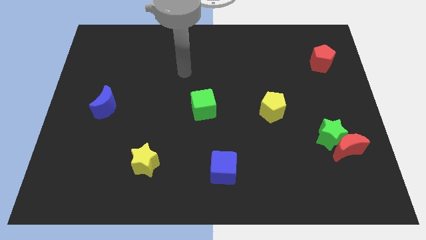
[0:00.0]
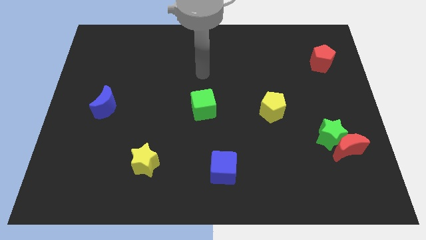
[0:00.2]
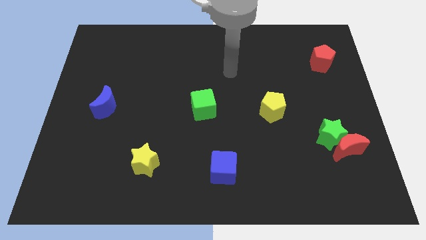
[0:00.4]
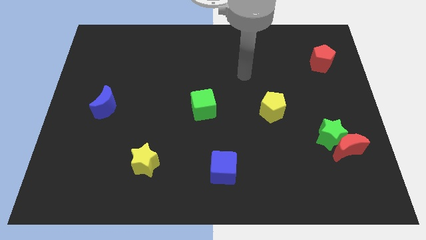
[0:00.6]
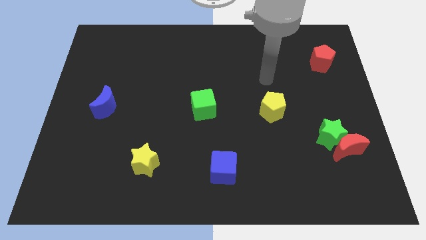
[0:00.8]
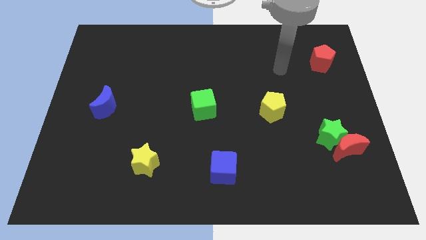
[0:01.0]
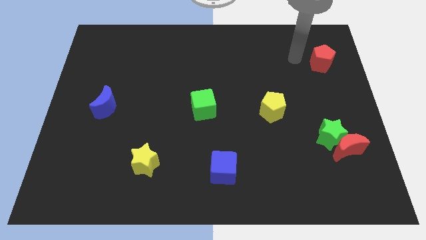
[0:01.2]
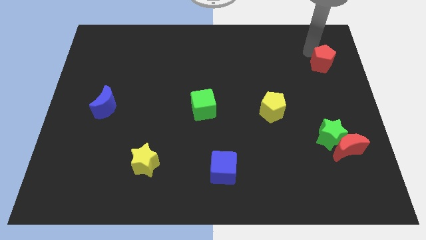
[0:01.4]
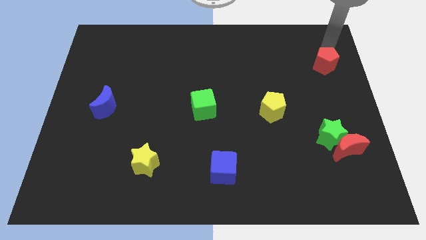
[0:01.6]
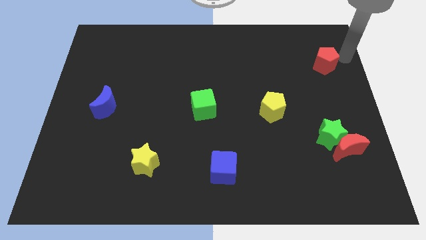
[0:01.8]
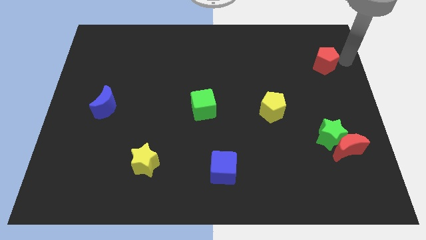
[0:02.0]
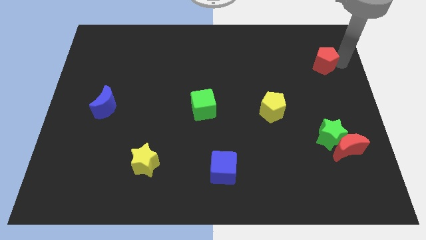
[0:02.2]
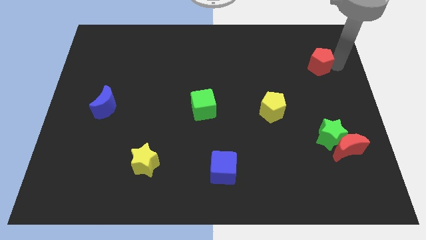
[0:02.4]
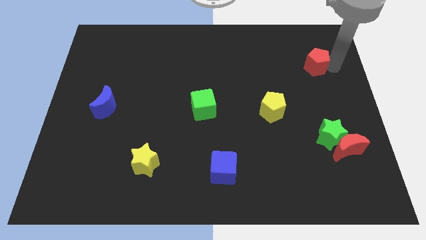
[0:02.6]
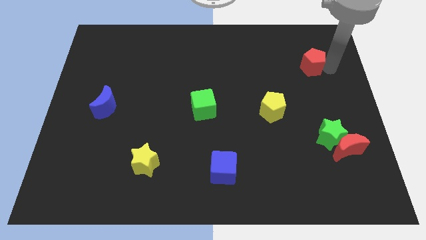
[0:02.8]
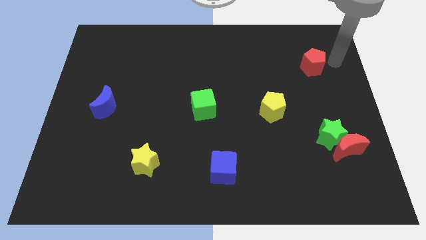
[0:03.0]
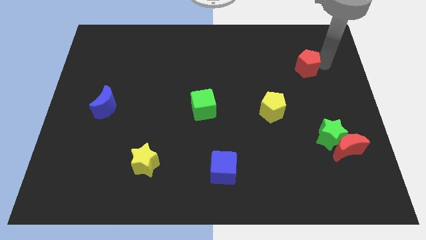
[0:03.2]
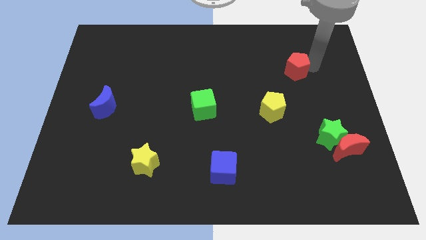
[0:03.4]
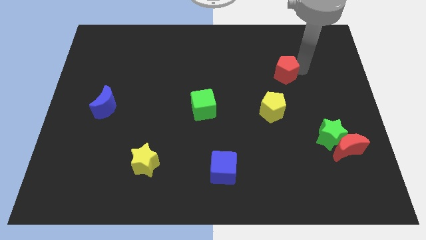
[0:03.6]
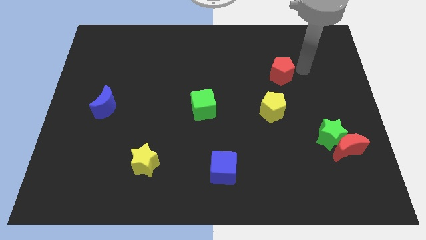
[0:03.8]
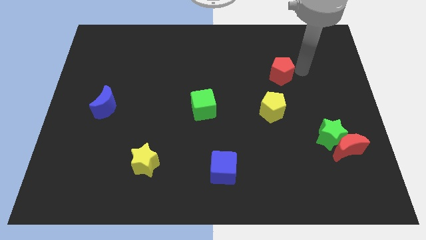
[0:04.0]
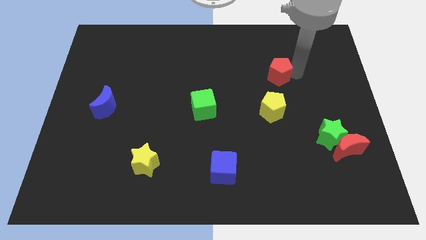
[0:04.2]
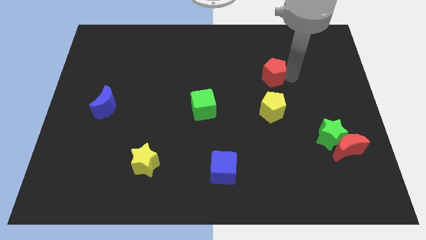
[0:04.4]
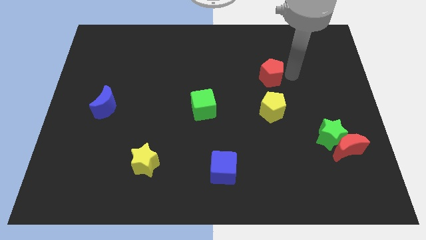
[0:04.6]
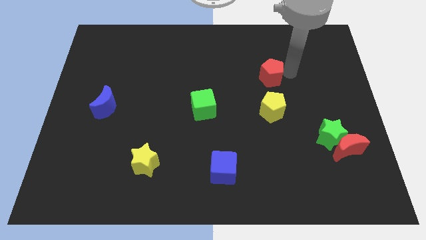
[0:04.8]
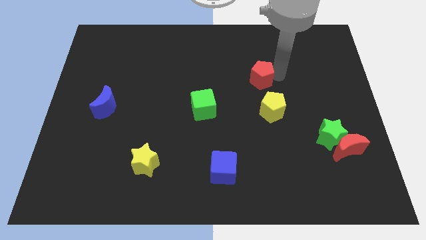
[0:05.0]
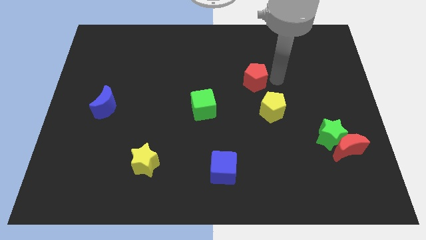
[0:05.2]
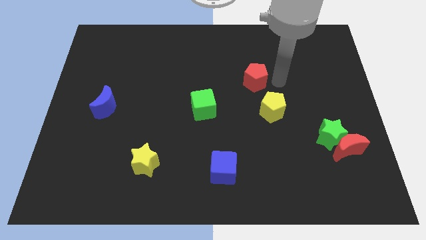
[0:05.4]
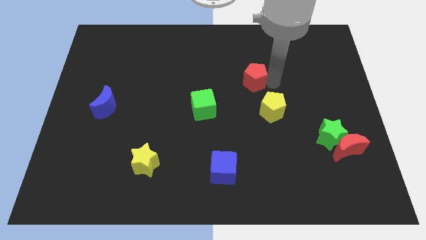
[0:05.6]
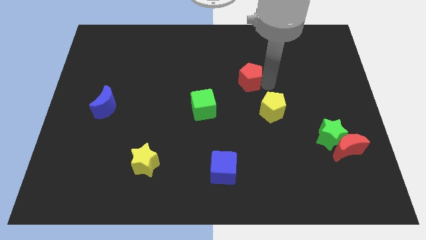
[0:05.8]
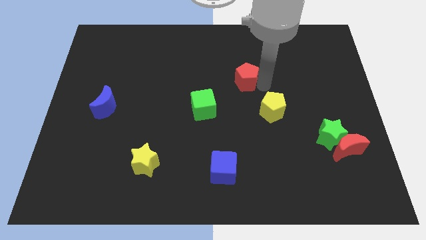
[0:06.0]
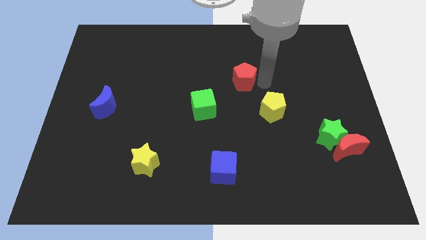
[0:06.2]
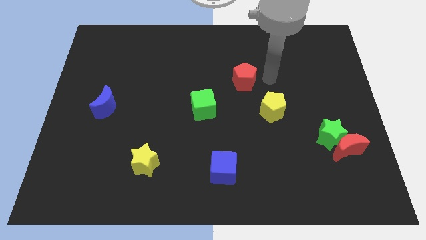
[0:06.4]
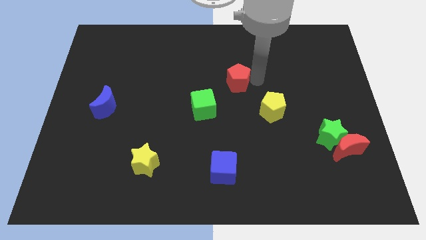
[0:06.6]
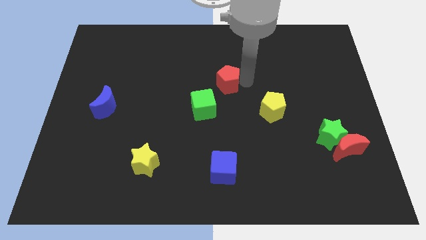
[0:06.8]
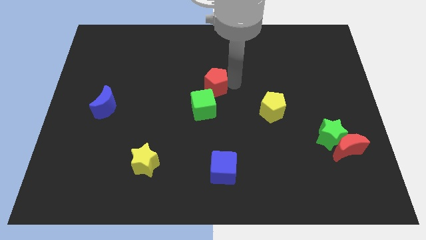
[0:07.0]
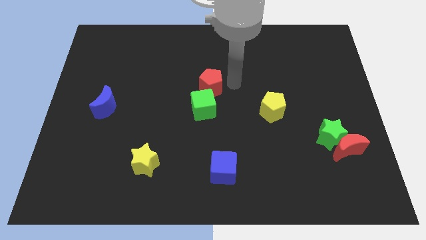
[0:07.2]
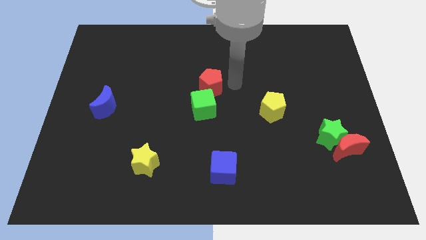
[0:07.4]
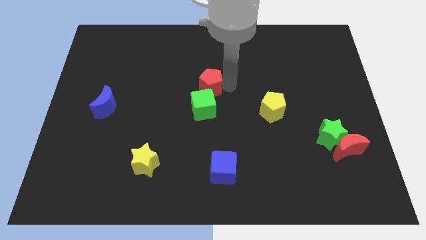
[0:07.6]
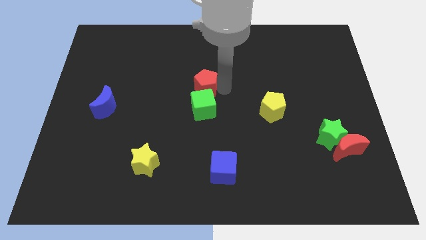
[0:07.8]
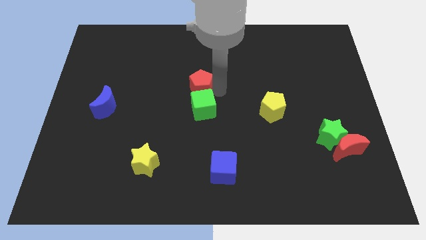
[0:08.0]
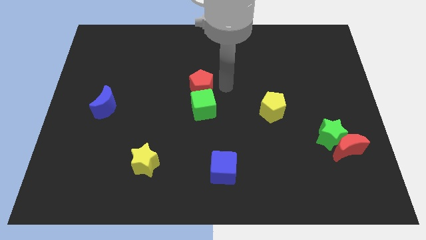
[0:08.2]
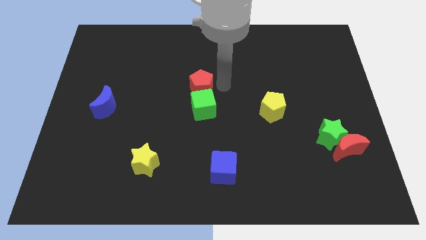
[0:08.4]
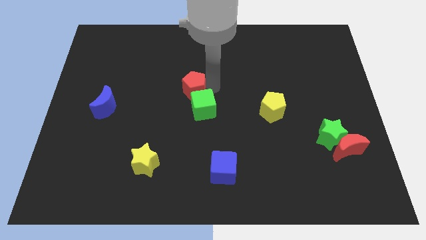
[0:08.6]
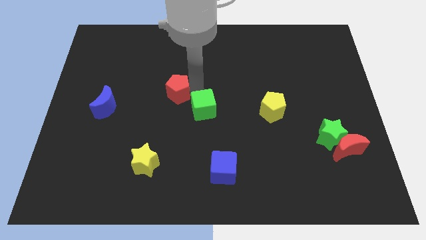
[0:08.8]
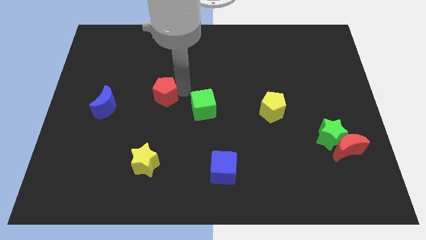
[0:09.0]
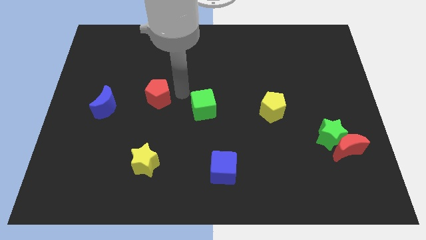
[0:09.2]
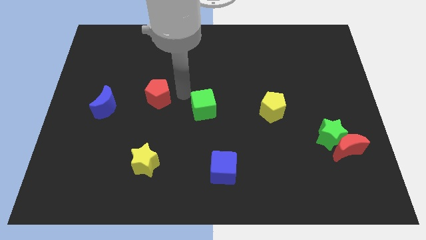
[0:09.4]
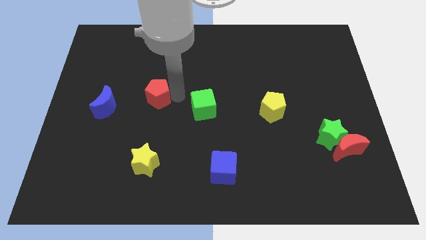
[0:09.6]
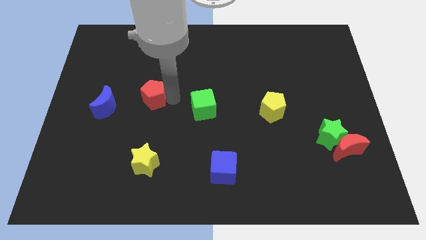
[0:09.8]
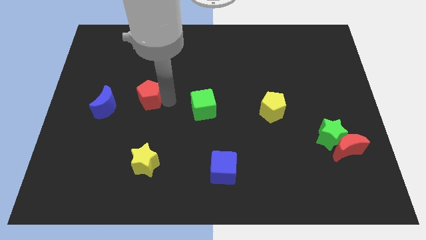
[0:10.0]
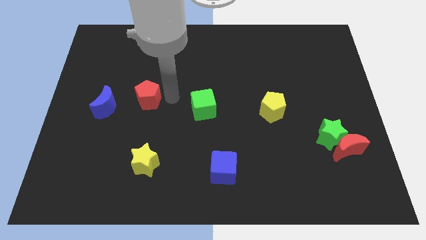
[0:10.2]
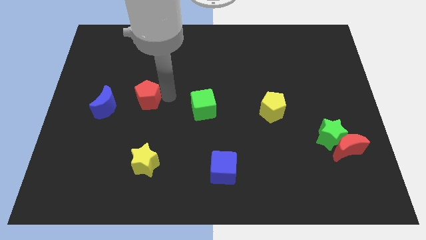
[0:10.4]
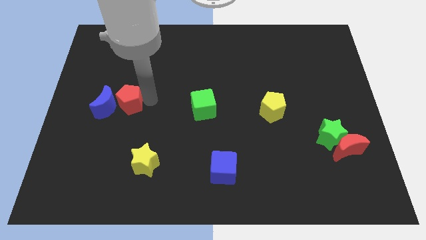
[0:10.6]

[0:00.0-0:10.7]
put the red pentagon towards the blue moon

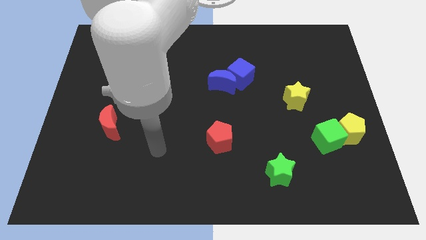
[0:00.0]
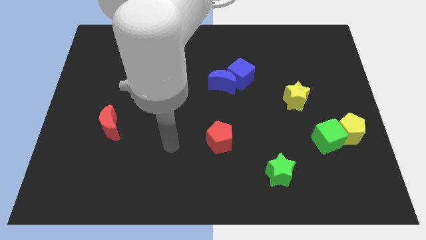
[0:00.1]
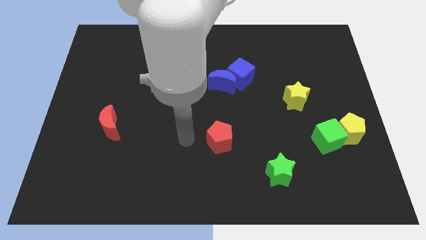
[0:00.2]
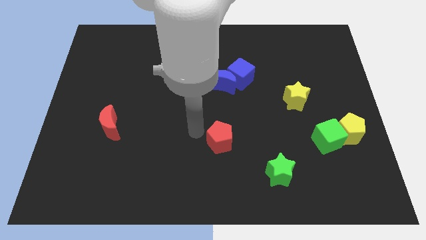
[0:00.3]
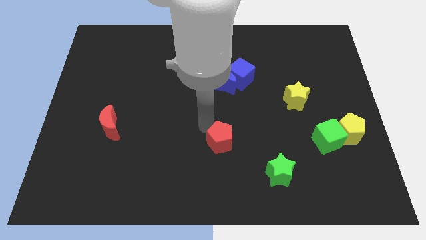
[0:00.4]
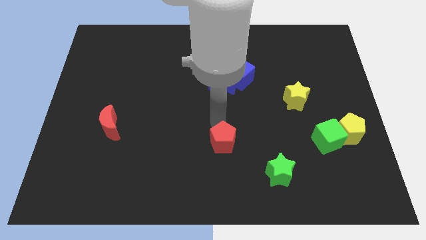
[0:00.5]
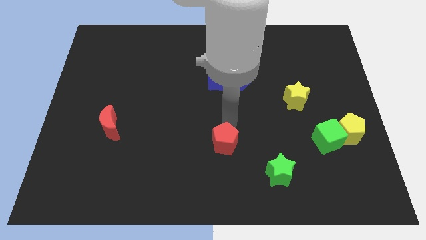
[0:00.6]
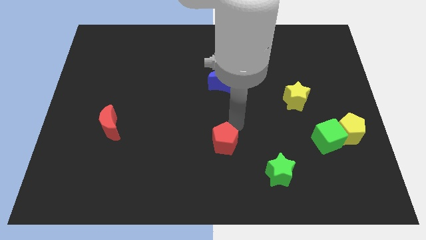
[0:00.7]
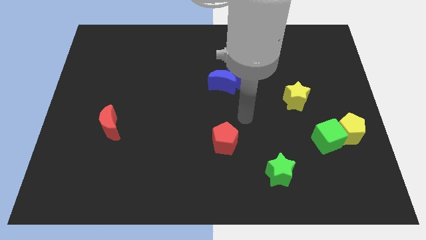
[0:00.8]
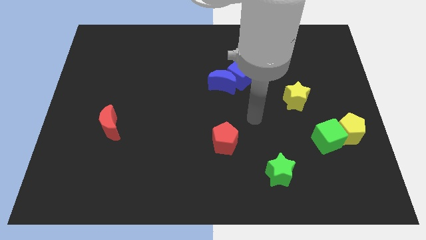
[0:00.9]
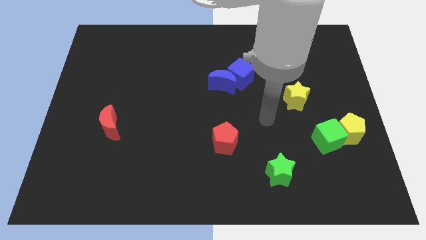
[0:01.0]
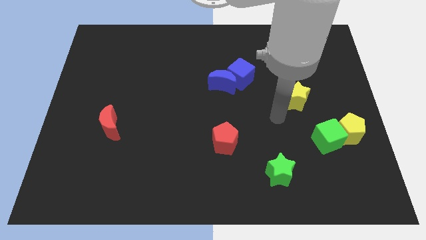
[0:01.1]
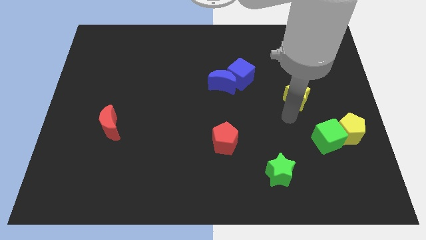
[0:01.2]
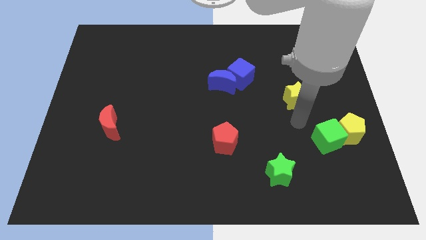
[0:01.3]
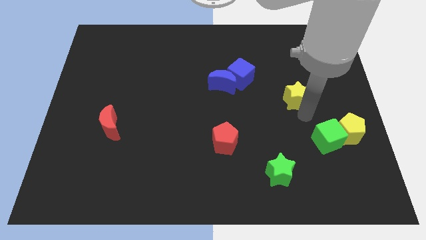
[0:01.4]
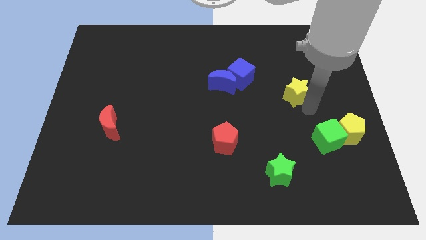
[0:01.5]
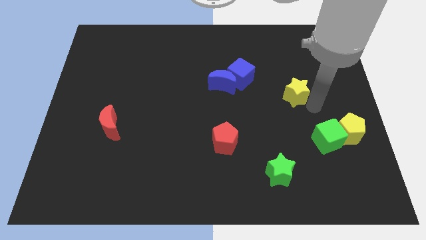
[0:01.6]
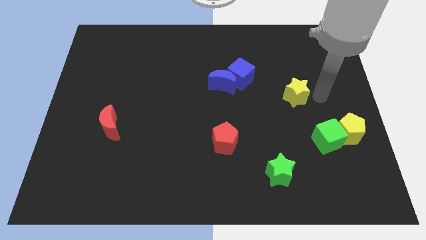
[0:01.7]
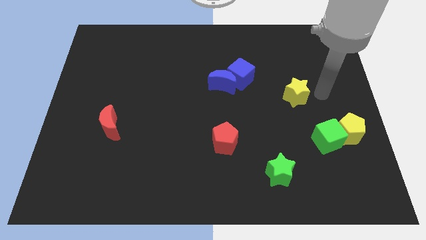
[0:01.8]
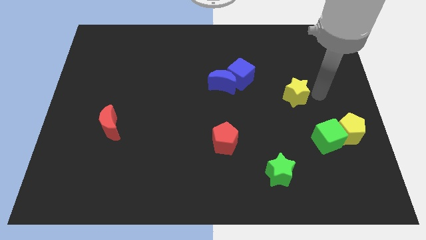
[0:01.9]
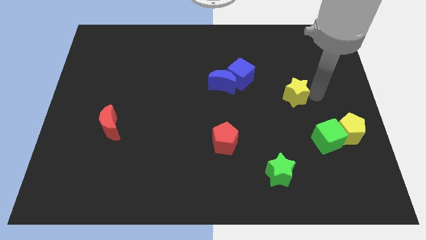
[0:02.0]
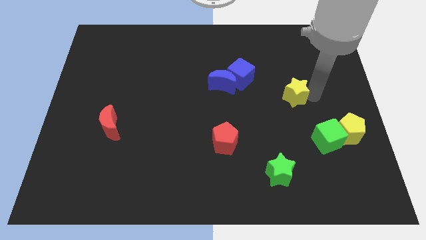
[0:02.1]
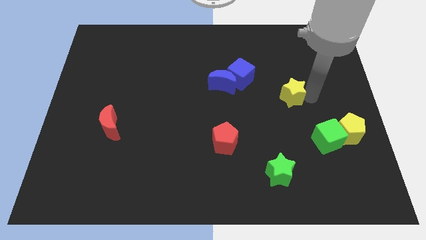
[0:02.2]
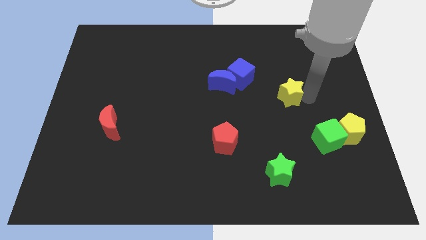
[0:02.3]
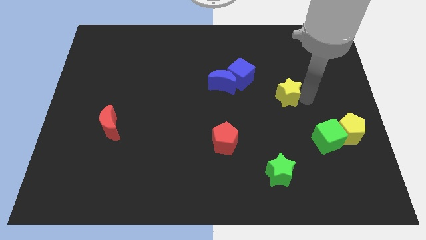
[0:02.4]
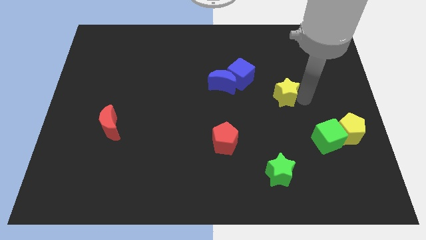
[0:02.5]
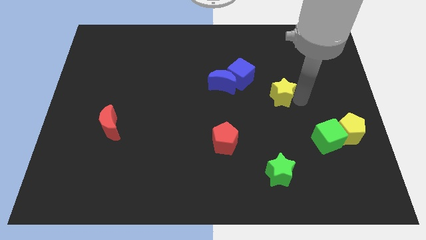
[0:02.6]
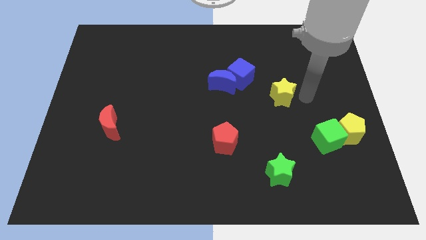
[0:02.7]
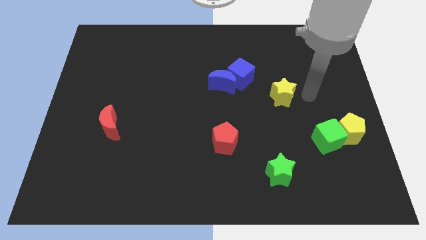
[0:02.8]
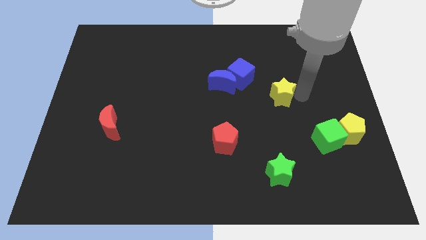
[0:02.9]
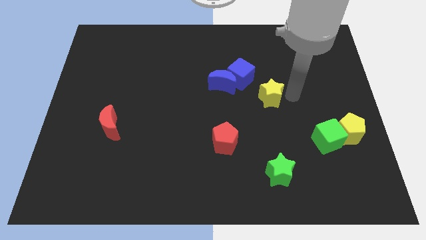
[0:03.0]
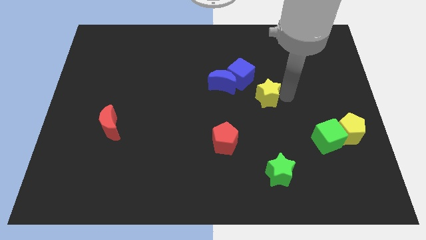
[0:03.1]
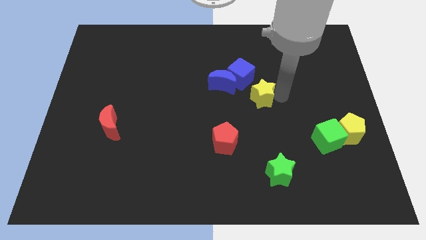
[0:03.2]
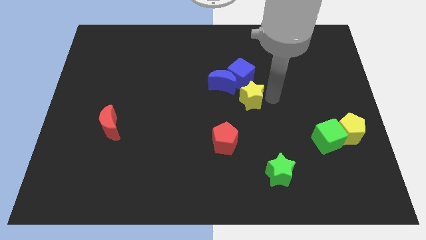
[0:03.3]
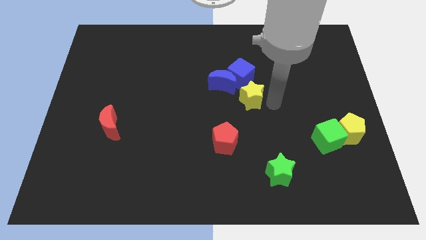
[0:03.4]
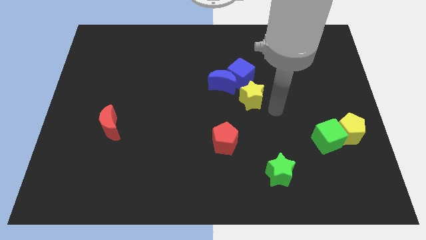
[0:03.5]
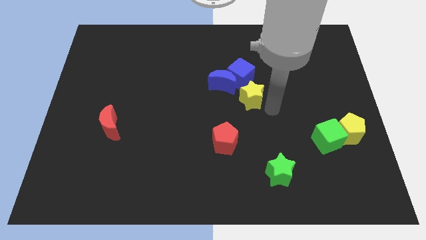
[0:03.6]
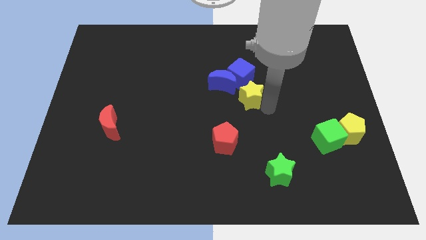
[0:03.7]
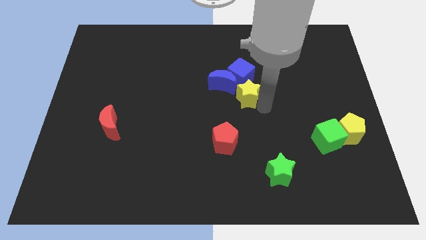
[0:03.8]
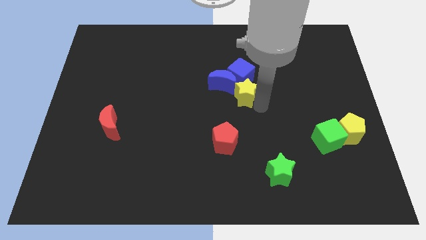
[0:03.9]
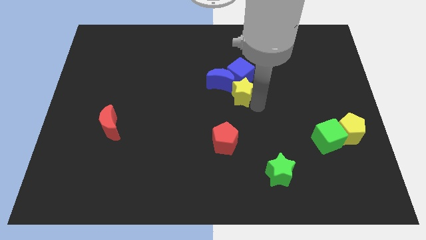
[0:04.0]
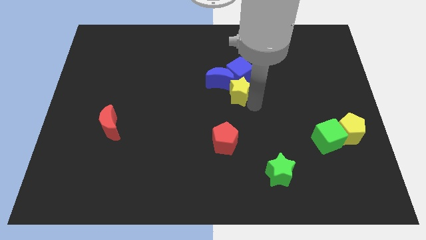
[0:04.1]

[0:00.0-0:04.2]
move the yellow star towards the blue moon
